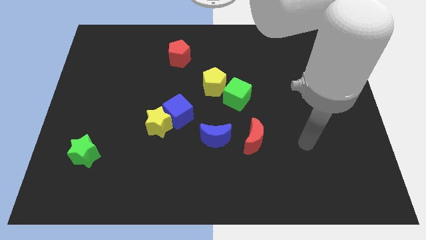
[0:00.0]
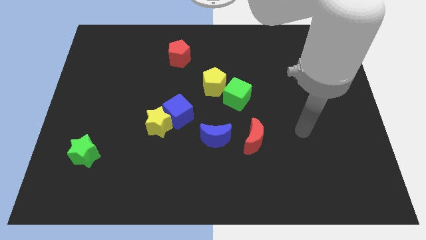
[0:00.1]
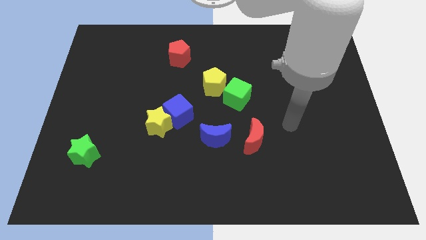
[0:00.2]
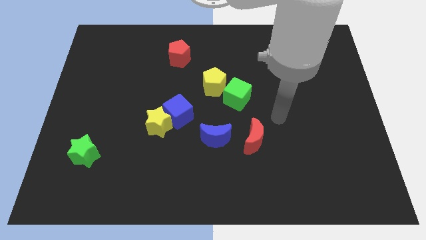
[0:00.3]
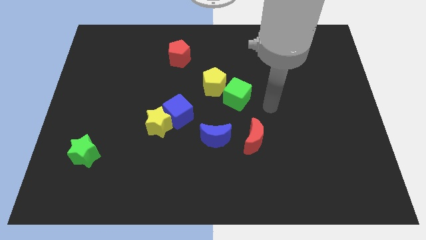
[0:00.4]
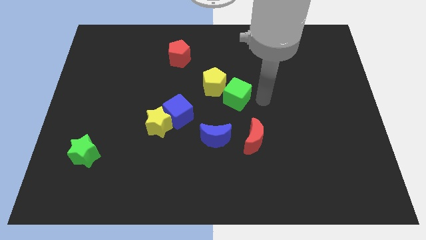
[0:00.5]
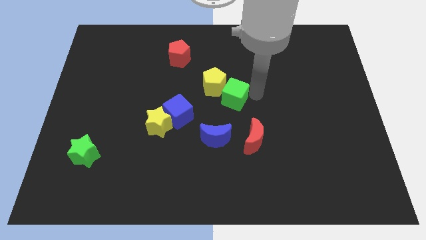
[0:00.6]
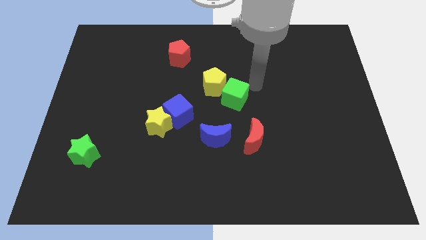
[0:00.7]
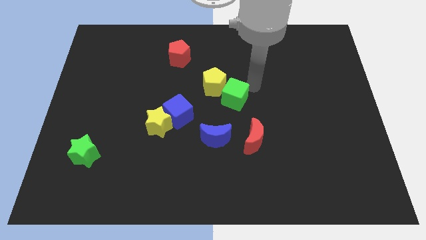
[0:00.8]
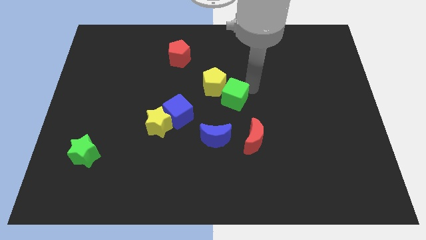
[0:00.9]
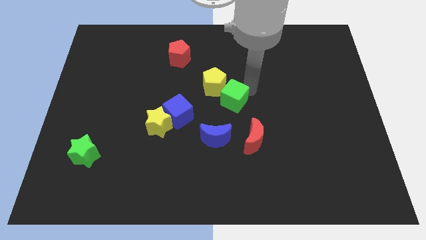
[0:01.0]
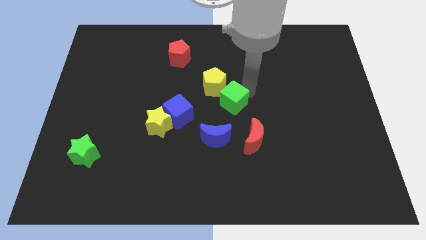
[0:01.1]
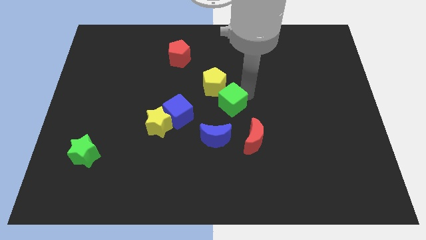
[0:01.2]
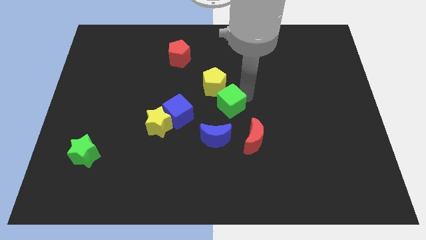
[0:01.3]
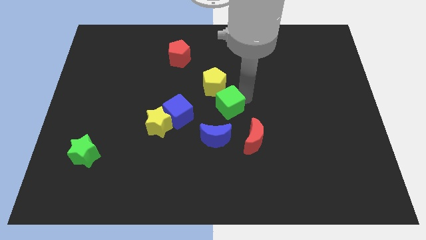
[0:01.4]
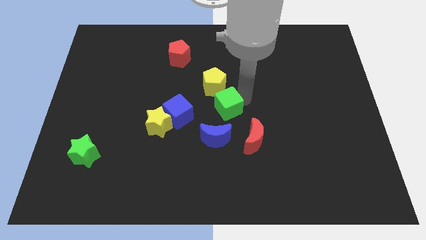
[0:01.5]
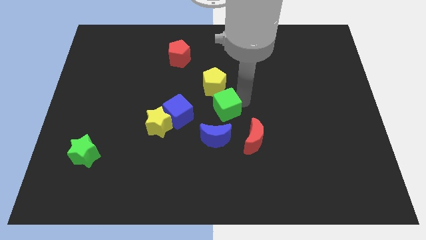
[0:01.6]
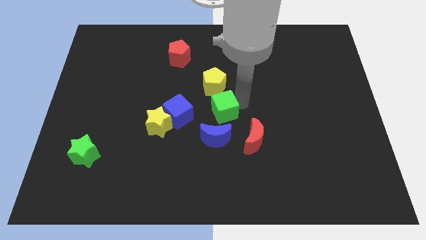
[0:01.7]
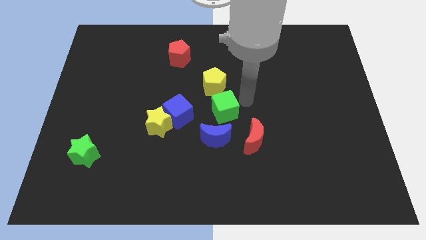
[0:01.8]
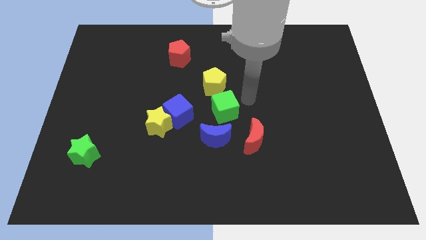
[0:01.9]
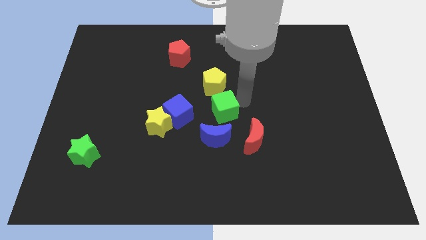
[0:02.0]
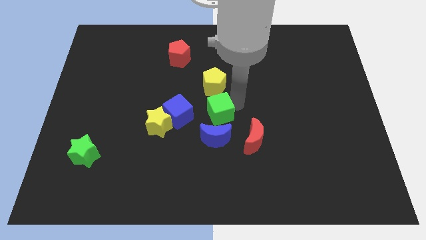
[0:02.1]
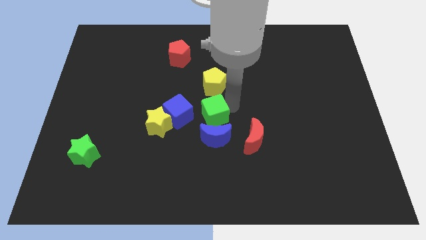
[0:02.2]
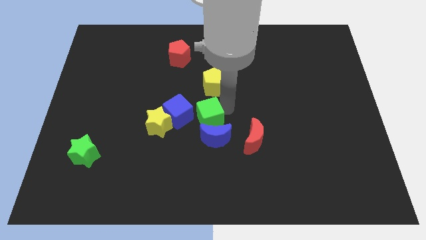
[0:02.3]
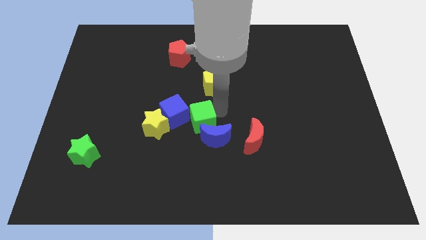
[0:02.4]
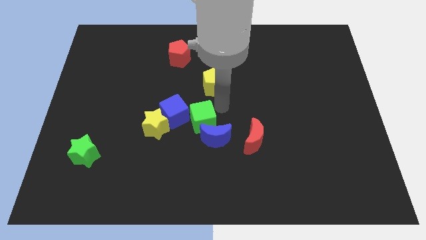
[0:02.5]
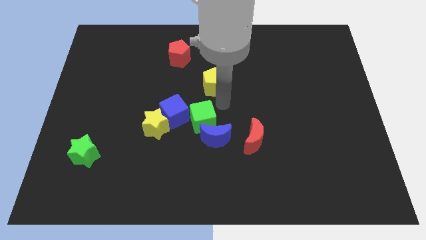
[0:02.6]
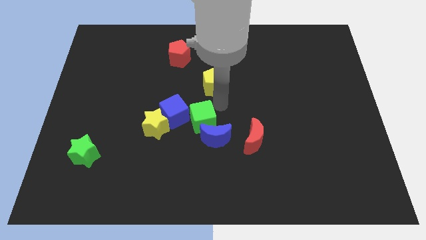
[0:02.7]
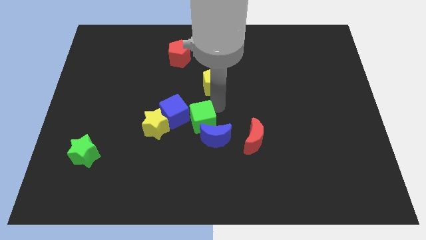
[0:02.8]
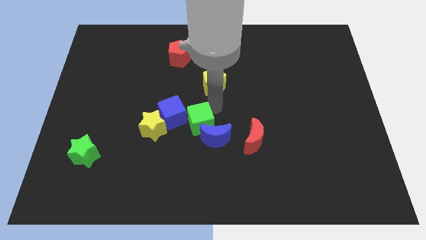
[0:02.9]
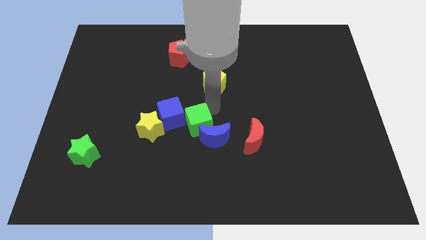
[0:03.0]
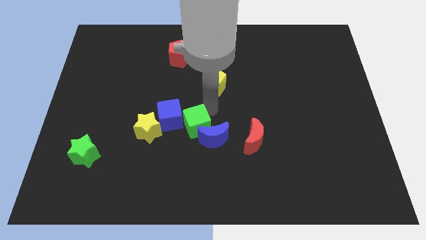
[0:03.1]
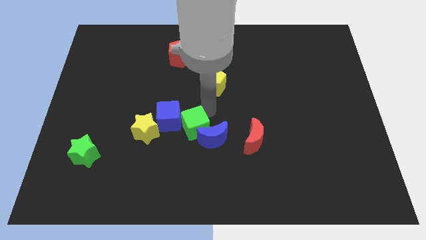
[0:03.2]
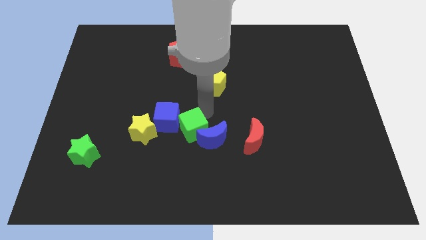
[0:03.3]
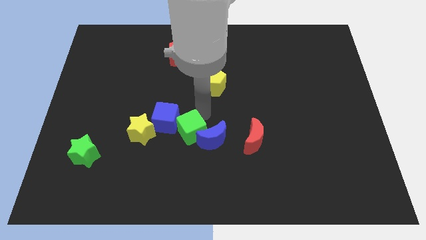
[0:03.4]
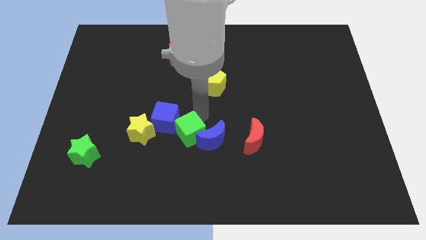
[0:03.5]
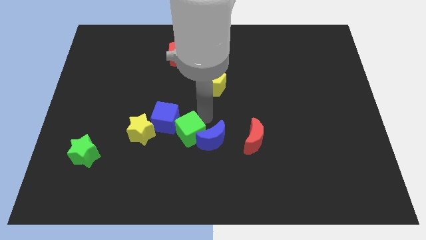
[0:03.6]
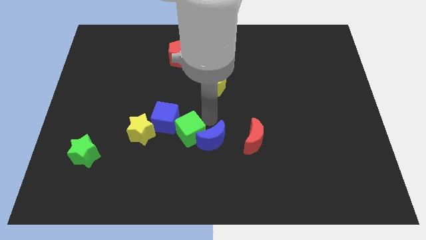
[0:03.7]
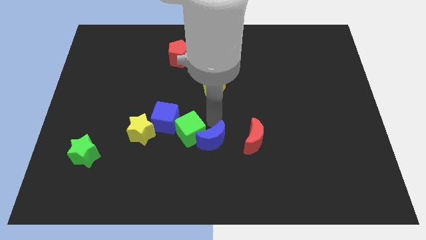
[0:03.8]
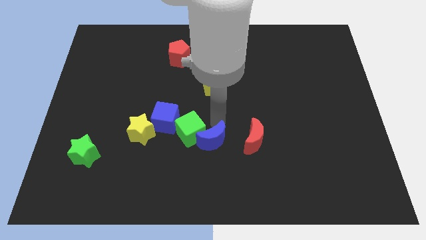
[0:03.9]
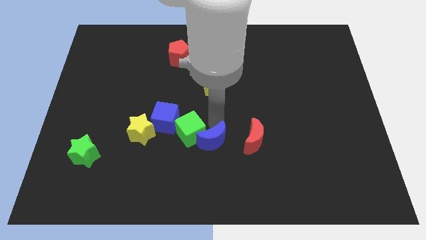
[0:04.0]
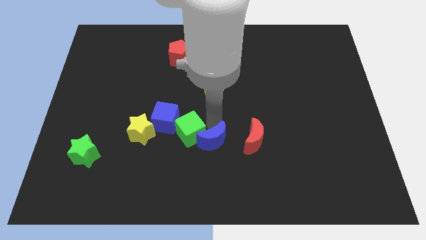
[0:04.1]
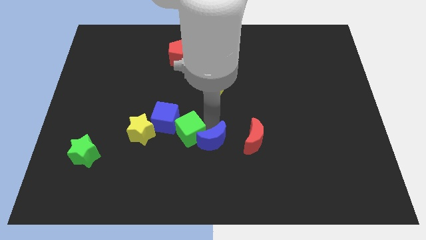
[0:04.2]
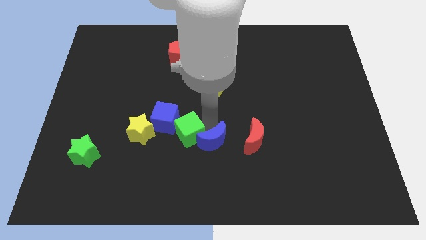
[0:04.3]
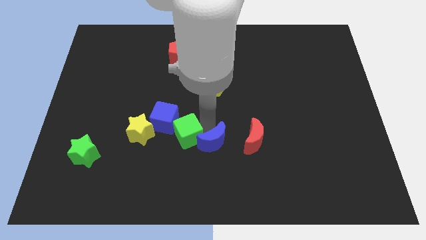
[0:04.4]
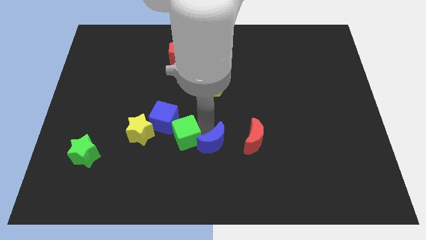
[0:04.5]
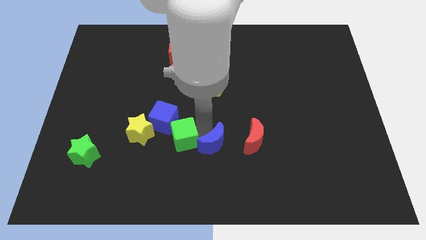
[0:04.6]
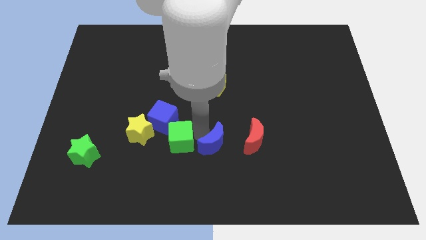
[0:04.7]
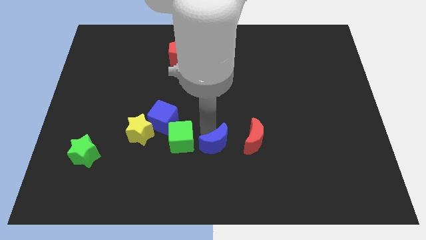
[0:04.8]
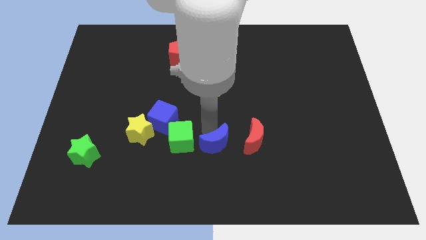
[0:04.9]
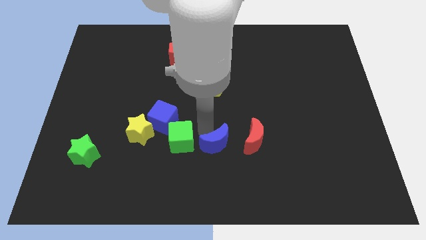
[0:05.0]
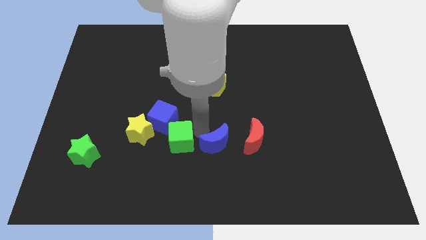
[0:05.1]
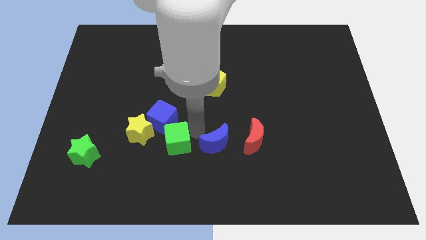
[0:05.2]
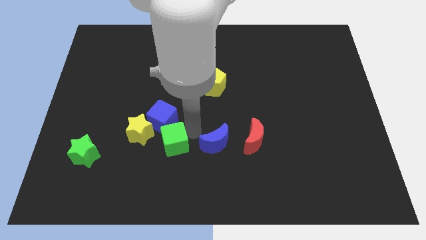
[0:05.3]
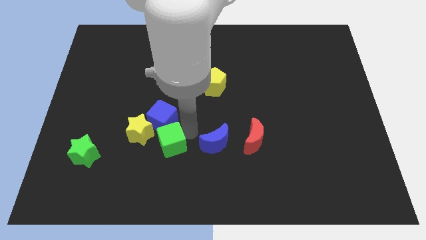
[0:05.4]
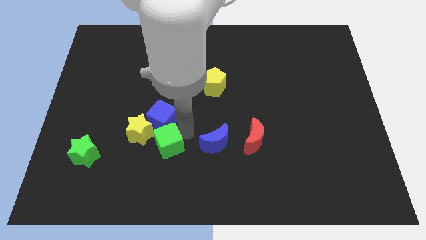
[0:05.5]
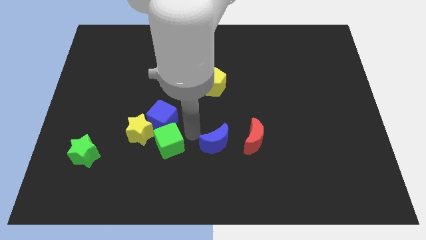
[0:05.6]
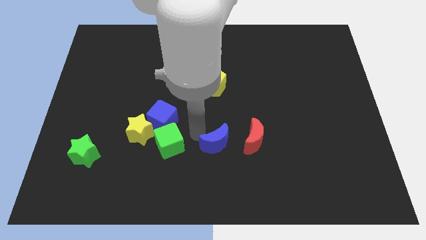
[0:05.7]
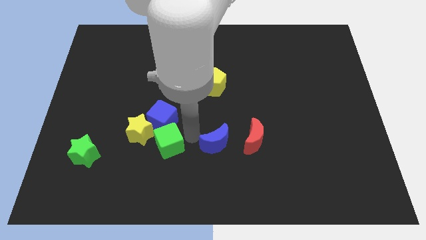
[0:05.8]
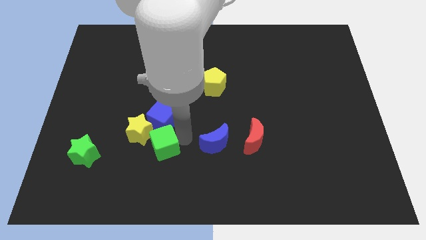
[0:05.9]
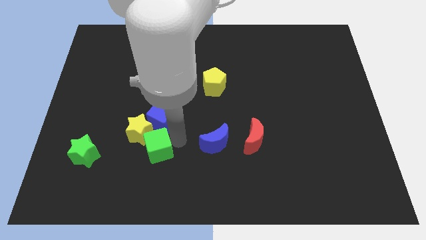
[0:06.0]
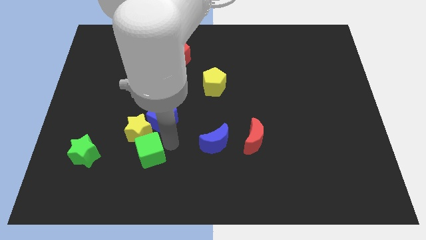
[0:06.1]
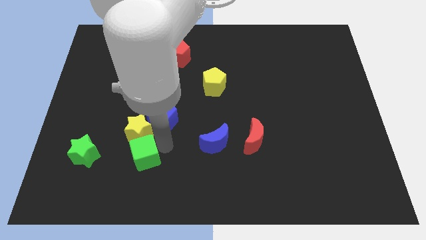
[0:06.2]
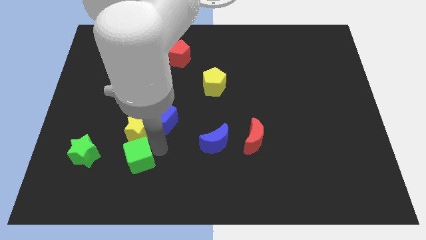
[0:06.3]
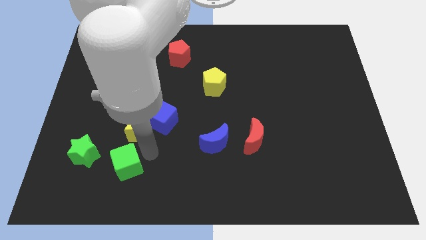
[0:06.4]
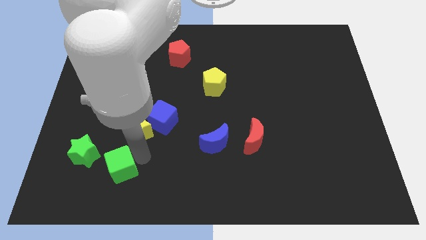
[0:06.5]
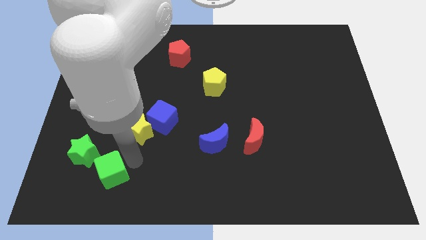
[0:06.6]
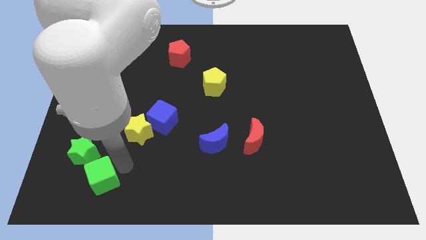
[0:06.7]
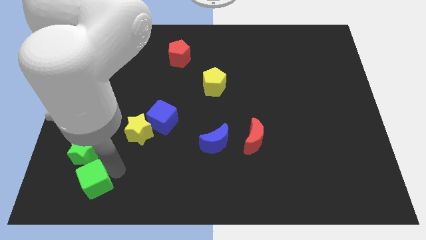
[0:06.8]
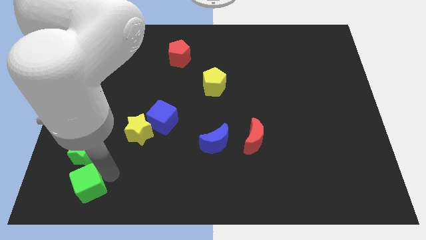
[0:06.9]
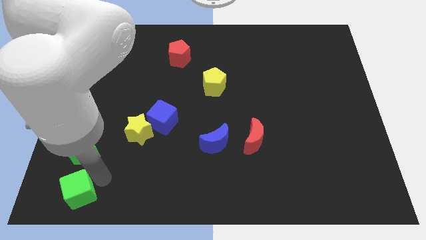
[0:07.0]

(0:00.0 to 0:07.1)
move the green cube to the bottom left corner
